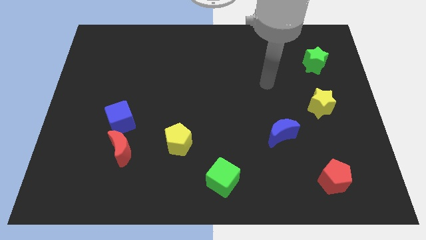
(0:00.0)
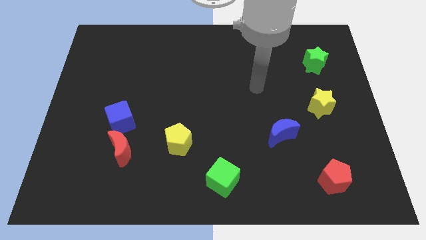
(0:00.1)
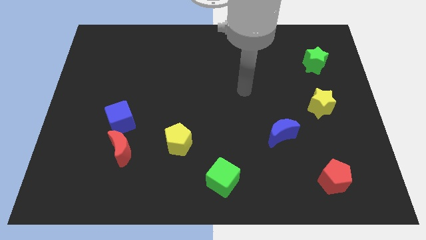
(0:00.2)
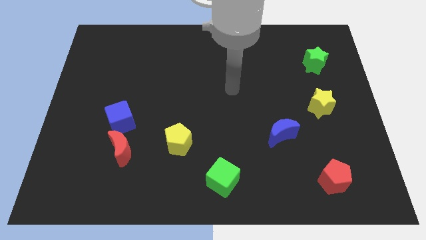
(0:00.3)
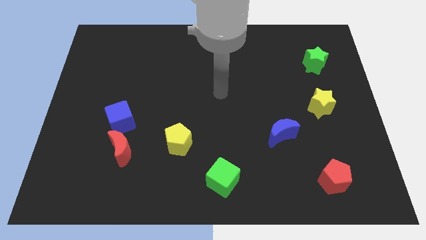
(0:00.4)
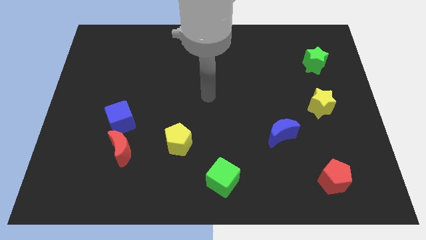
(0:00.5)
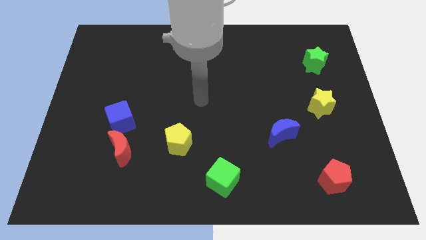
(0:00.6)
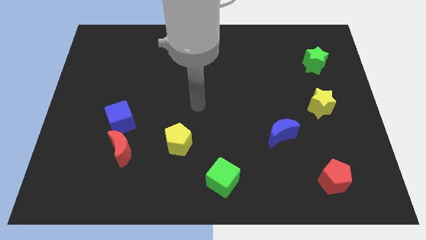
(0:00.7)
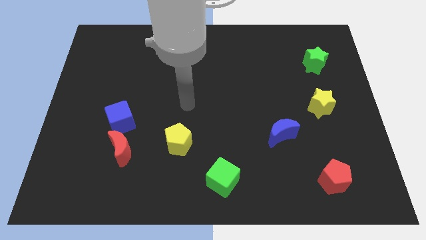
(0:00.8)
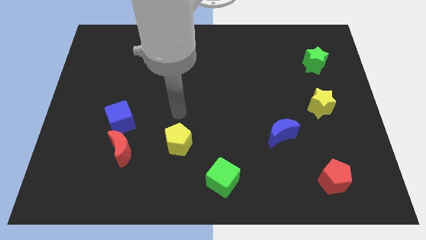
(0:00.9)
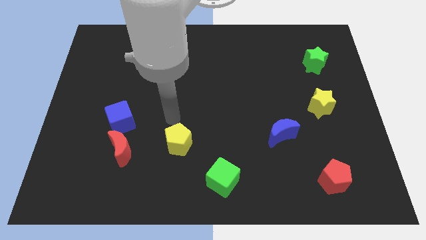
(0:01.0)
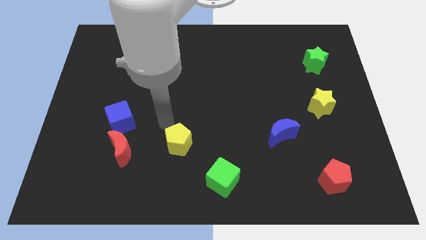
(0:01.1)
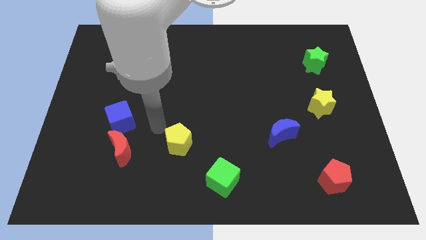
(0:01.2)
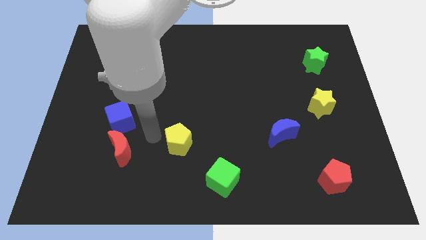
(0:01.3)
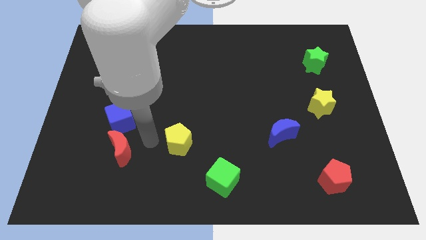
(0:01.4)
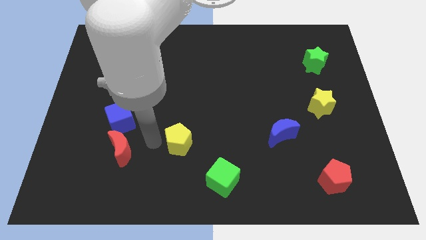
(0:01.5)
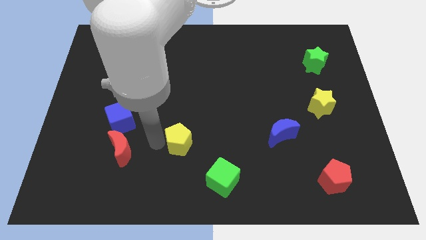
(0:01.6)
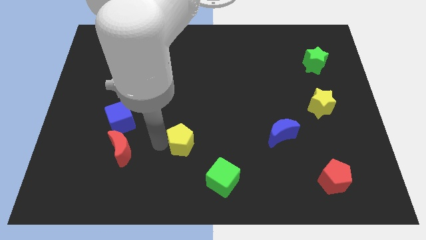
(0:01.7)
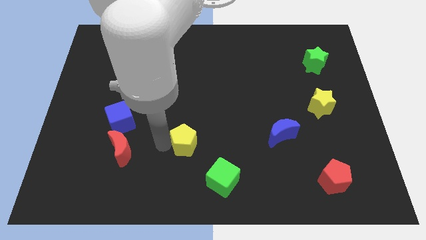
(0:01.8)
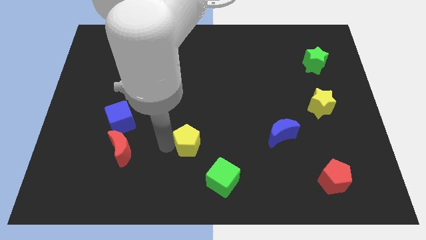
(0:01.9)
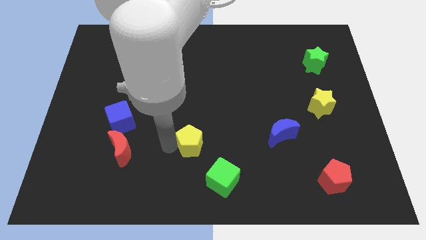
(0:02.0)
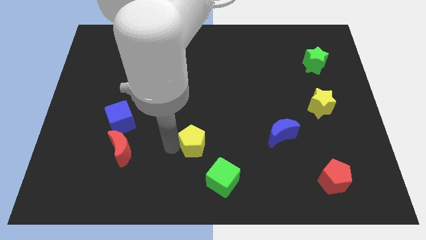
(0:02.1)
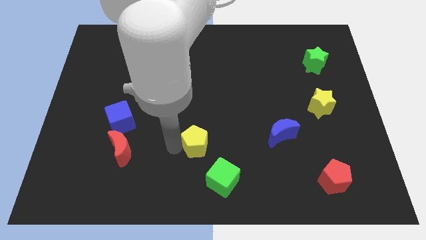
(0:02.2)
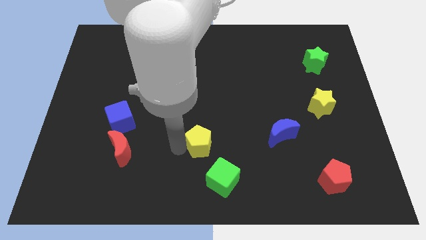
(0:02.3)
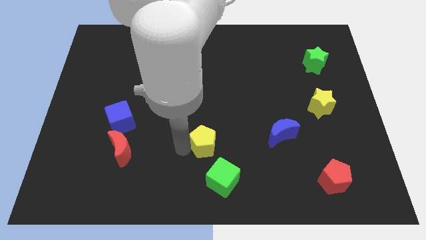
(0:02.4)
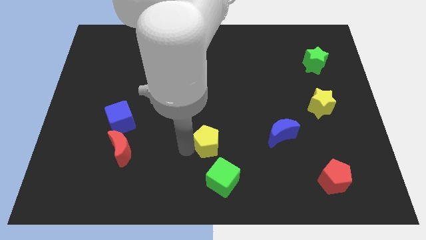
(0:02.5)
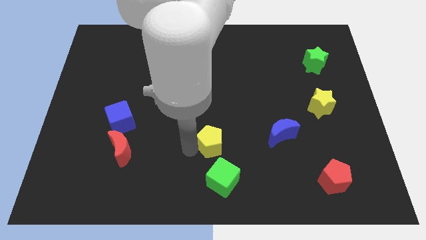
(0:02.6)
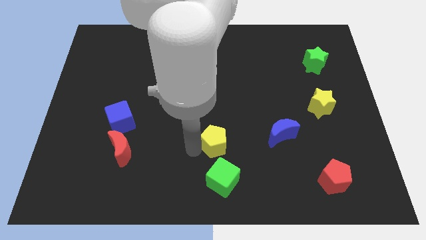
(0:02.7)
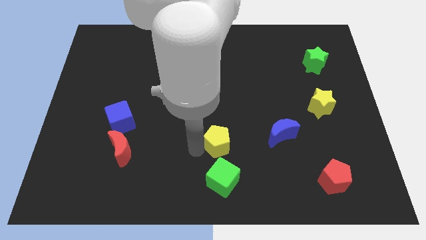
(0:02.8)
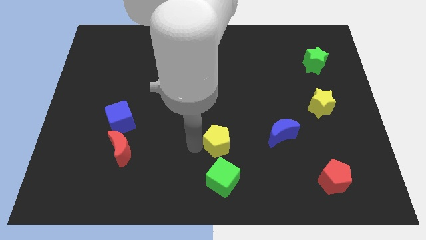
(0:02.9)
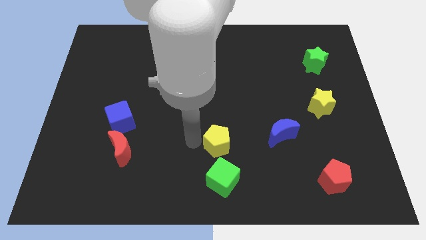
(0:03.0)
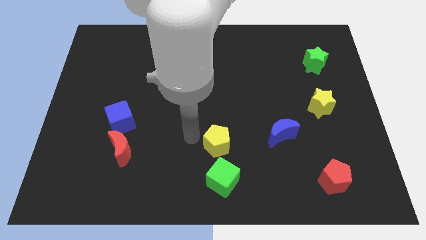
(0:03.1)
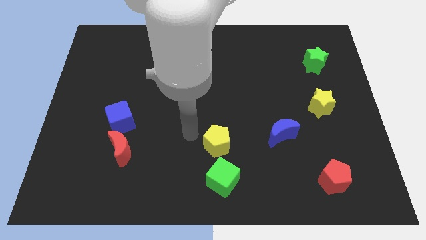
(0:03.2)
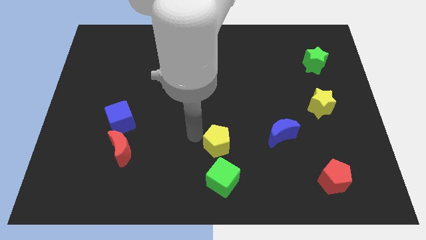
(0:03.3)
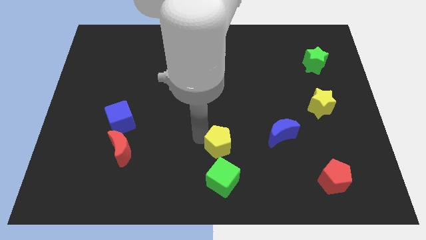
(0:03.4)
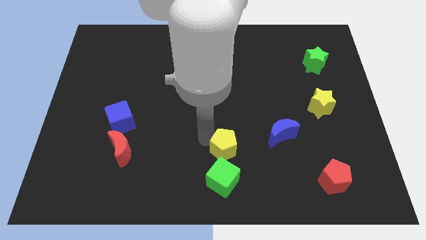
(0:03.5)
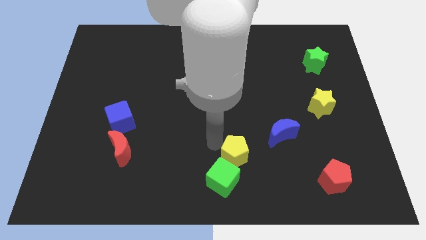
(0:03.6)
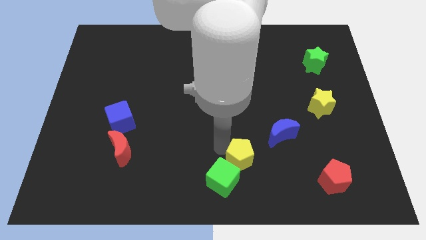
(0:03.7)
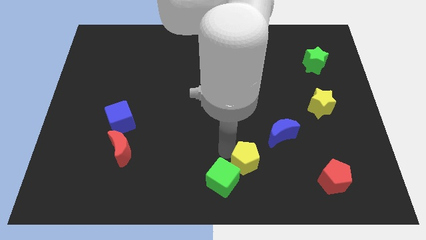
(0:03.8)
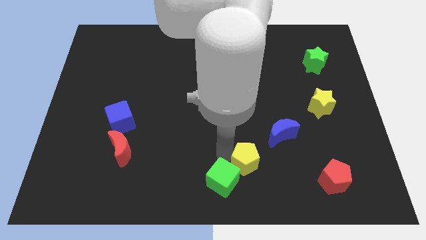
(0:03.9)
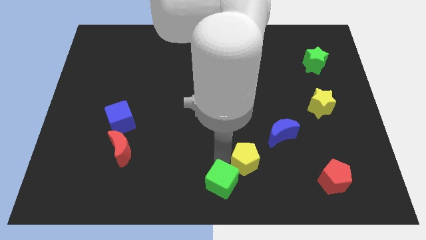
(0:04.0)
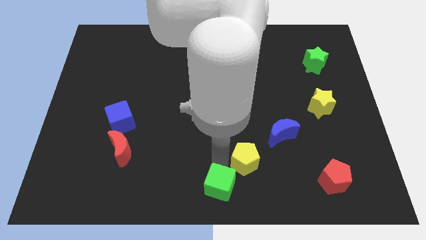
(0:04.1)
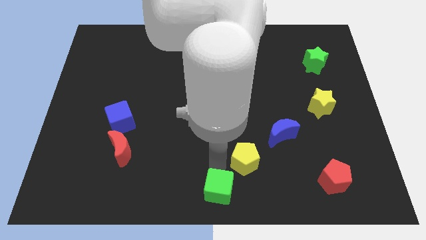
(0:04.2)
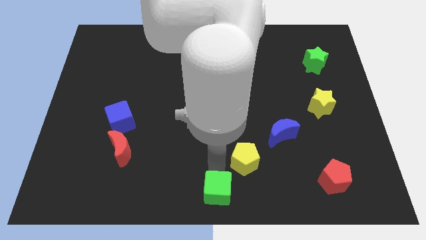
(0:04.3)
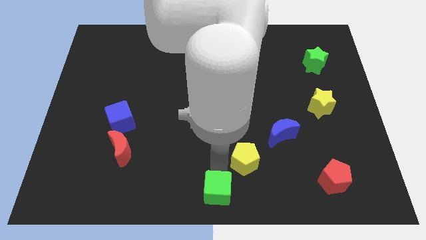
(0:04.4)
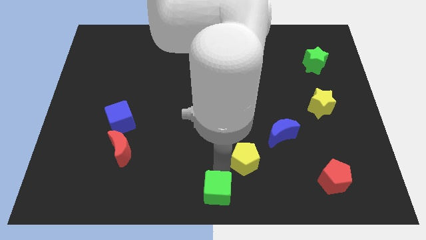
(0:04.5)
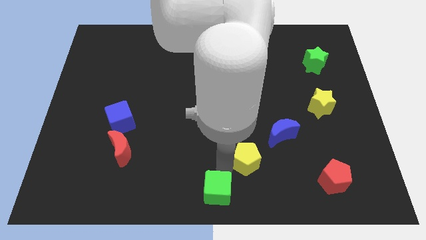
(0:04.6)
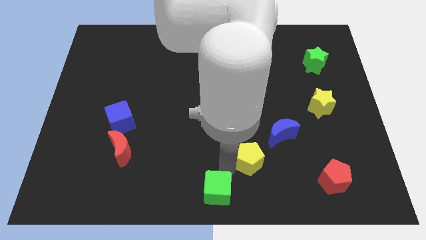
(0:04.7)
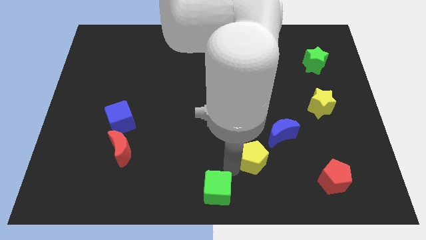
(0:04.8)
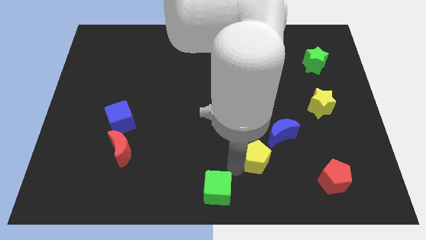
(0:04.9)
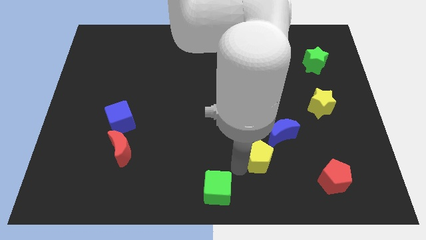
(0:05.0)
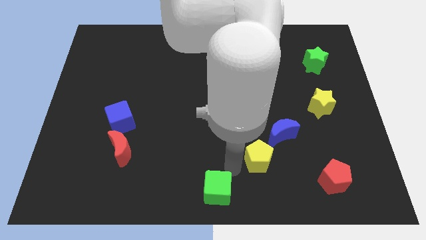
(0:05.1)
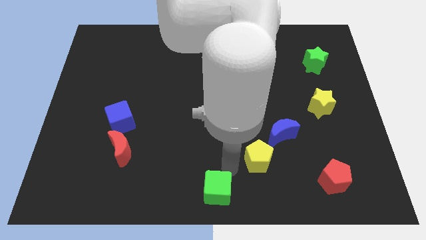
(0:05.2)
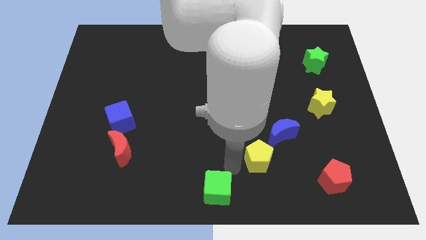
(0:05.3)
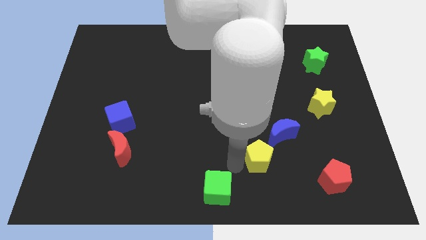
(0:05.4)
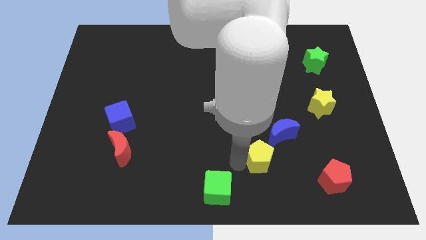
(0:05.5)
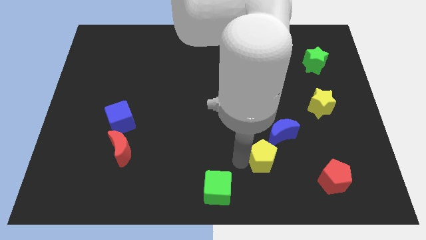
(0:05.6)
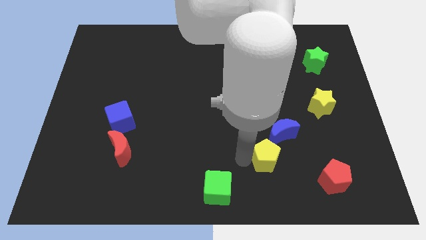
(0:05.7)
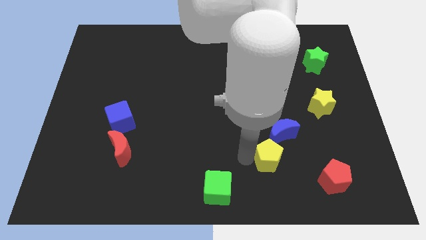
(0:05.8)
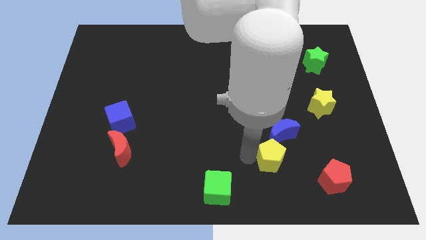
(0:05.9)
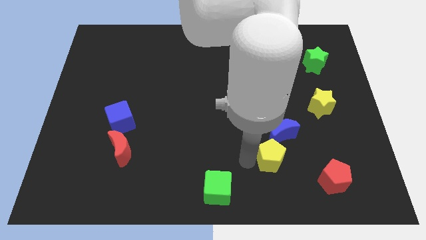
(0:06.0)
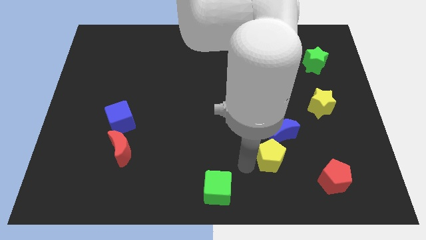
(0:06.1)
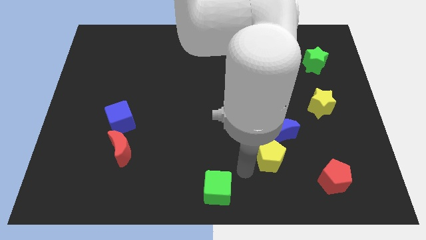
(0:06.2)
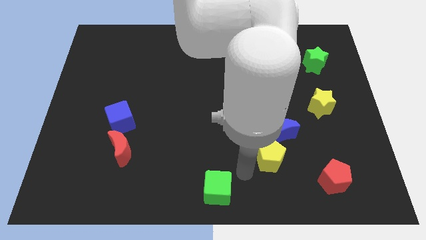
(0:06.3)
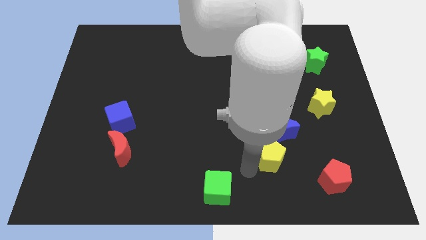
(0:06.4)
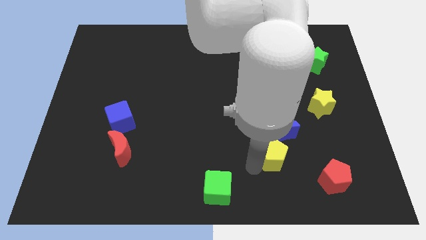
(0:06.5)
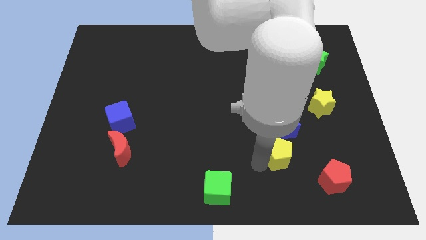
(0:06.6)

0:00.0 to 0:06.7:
push the yellow pentagon to the right

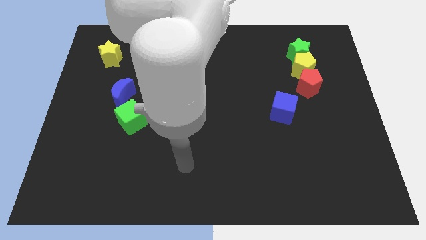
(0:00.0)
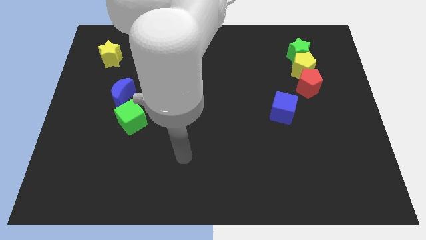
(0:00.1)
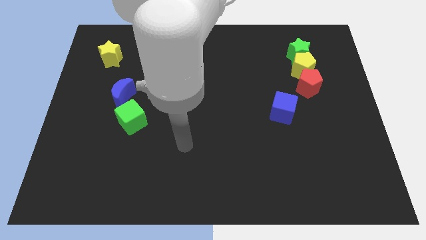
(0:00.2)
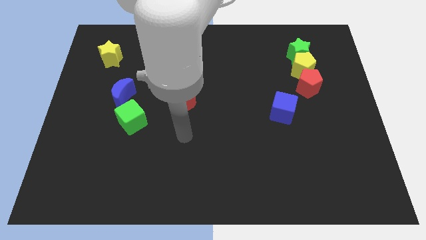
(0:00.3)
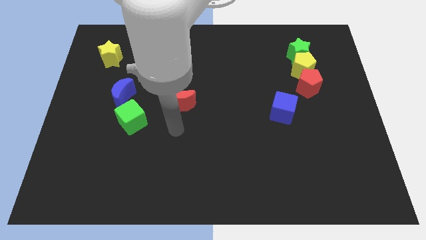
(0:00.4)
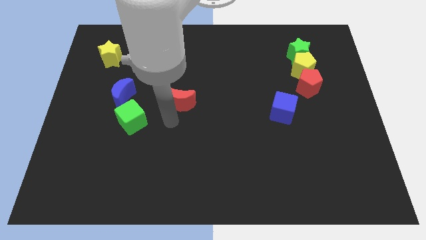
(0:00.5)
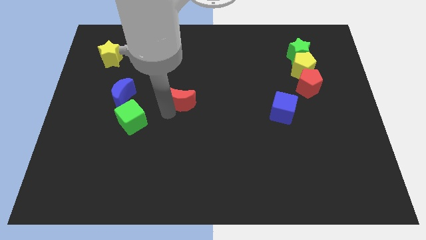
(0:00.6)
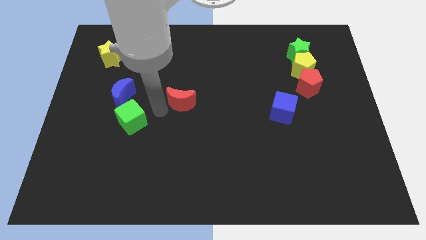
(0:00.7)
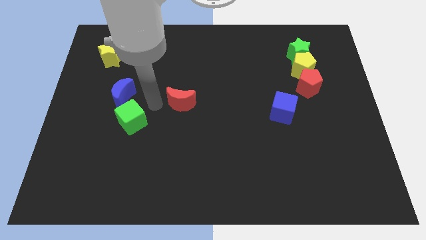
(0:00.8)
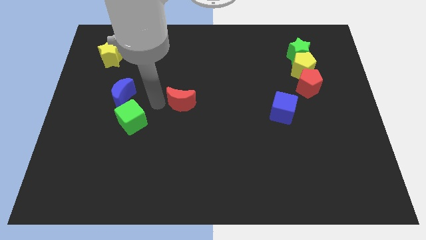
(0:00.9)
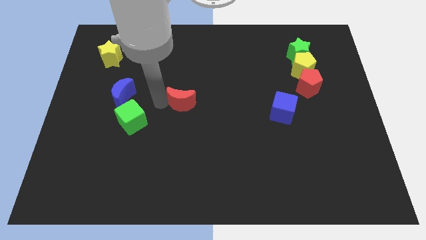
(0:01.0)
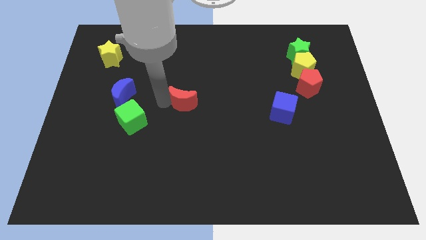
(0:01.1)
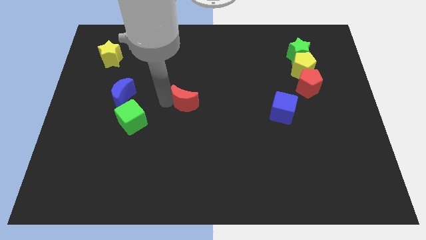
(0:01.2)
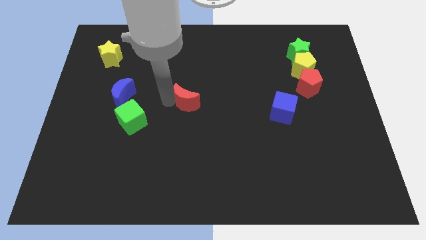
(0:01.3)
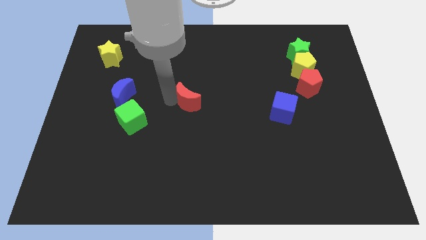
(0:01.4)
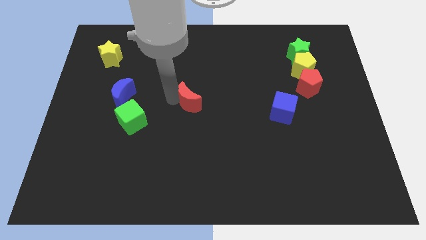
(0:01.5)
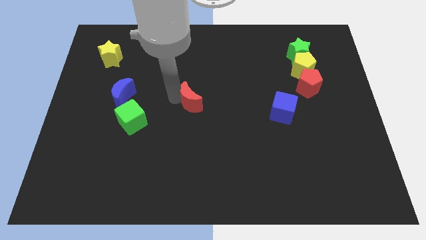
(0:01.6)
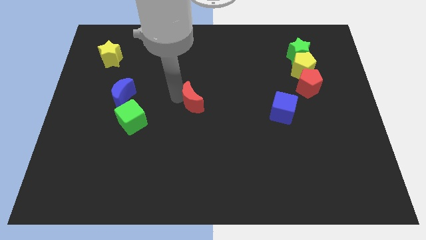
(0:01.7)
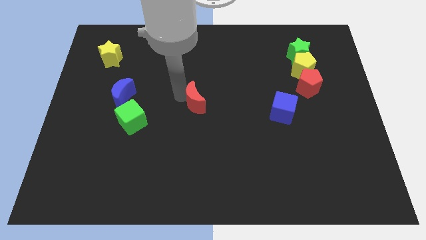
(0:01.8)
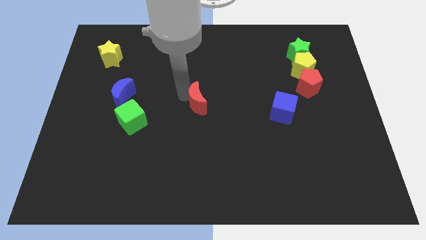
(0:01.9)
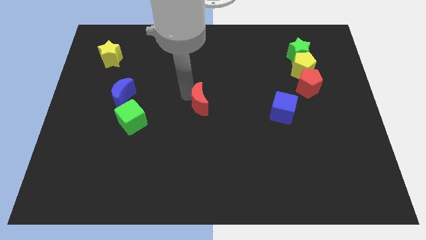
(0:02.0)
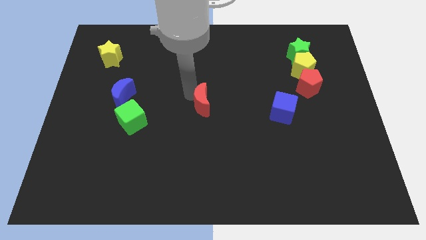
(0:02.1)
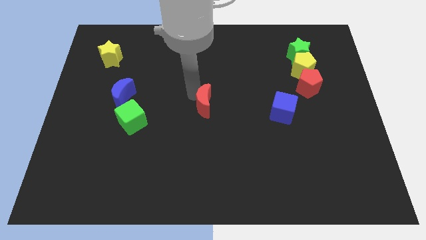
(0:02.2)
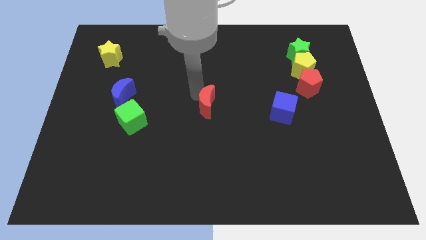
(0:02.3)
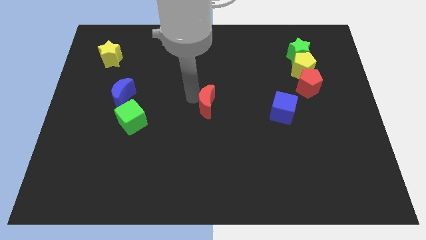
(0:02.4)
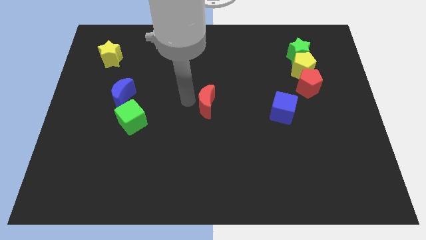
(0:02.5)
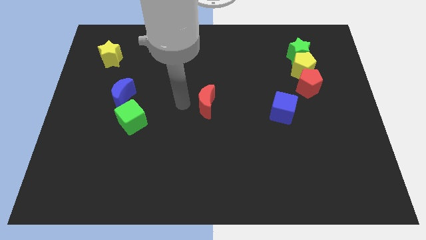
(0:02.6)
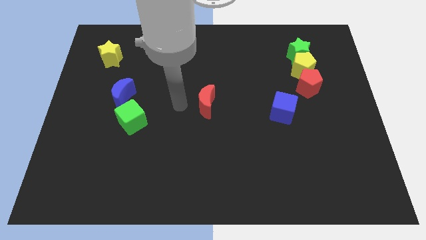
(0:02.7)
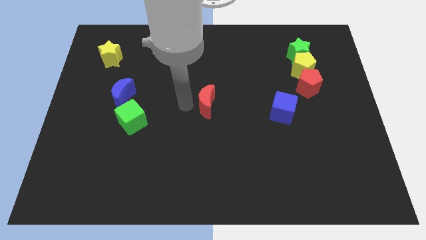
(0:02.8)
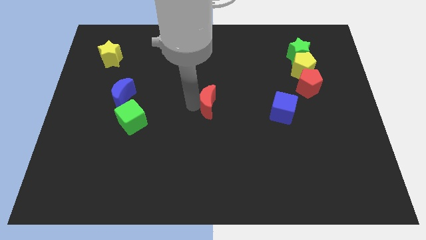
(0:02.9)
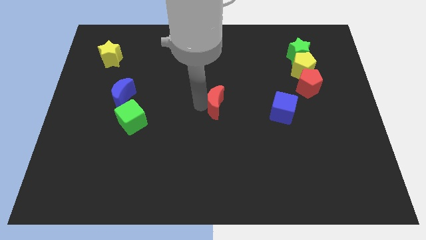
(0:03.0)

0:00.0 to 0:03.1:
slide the red moon right slightly
